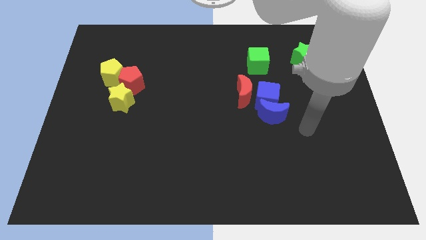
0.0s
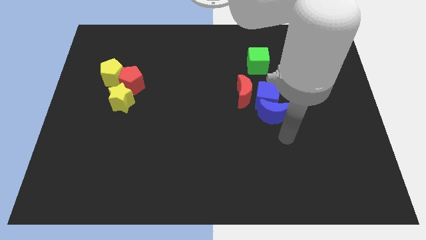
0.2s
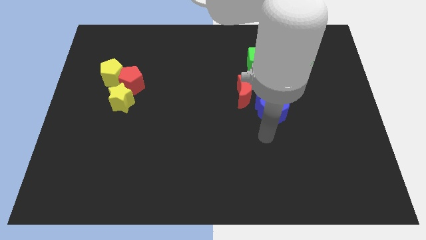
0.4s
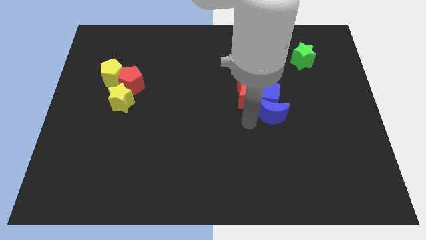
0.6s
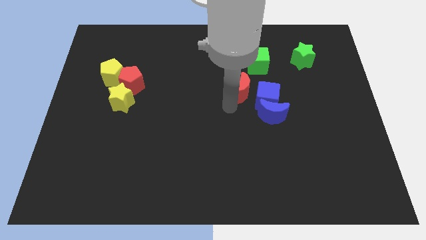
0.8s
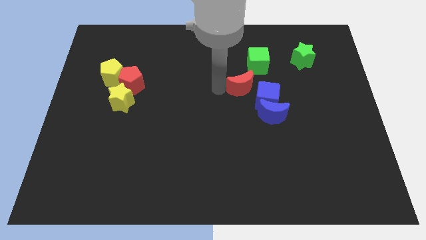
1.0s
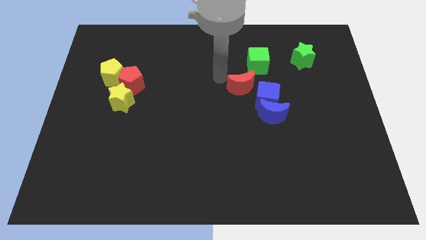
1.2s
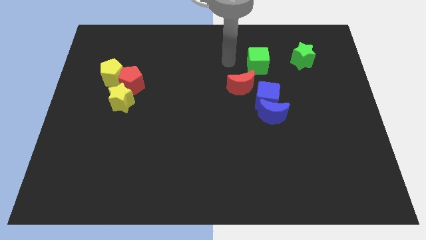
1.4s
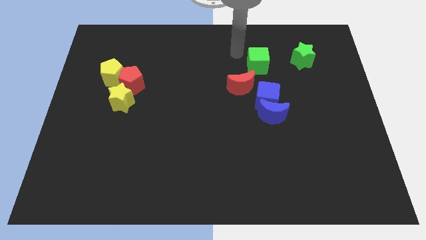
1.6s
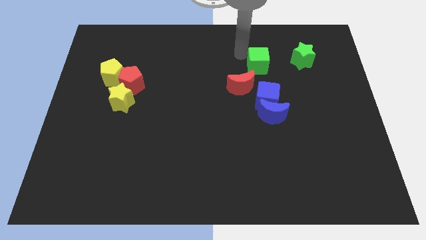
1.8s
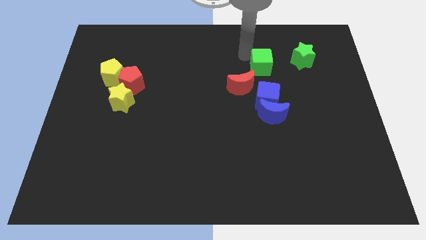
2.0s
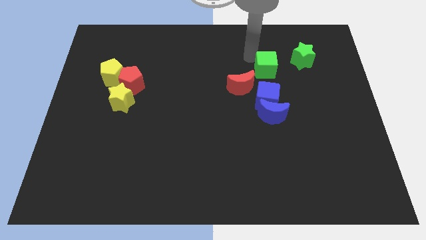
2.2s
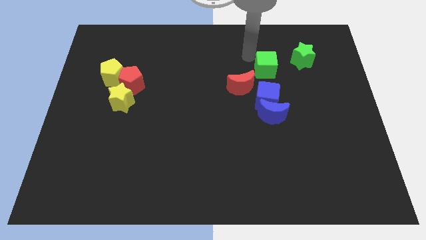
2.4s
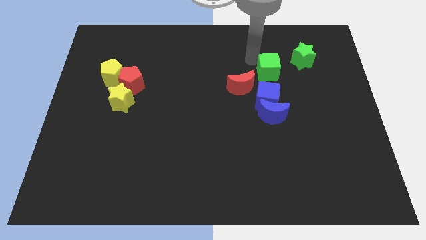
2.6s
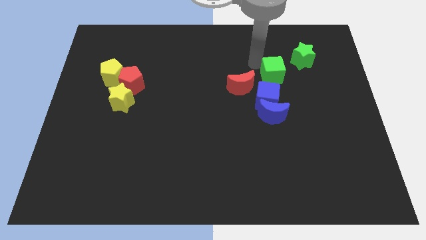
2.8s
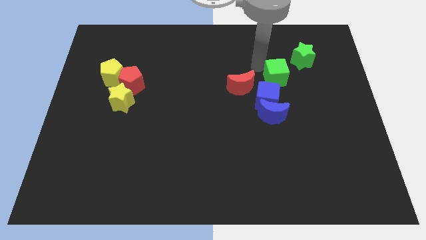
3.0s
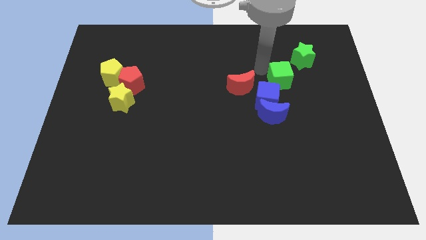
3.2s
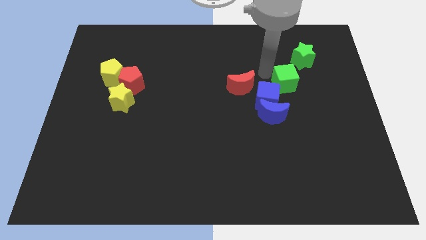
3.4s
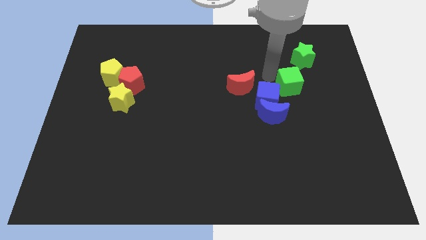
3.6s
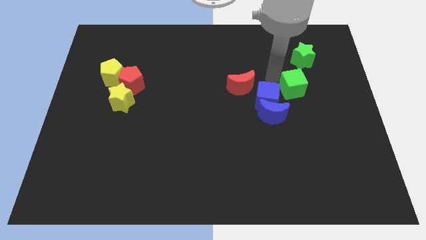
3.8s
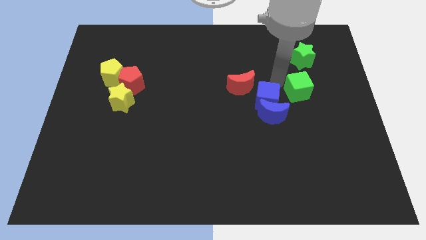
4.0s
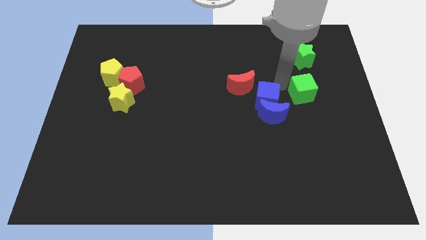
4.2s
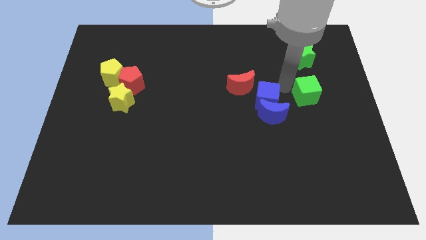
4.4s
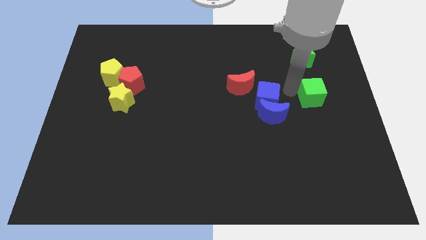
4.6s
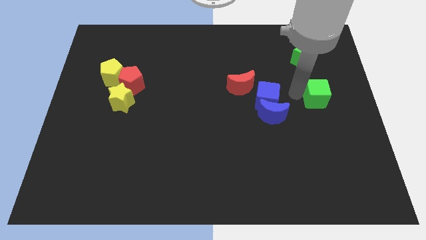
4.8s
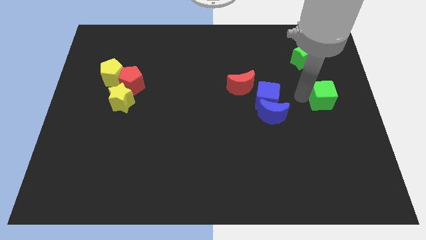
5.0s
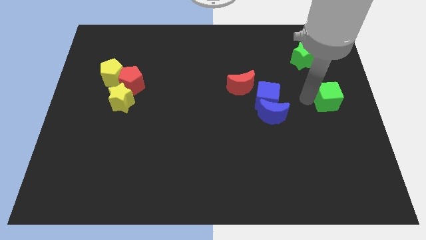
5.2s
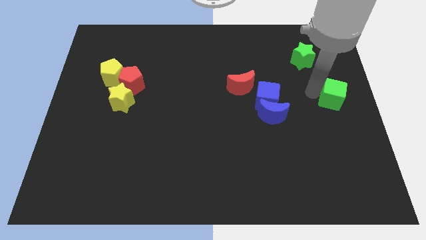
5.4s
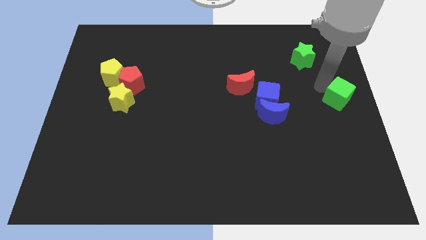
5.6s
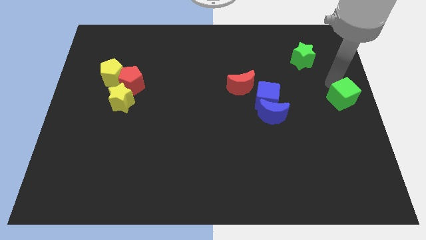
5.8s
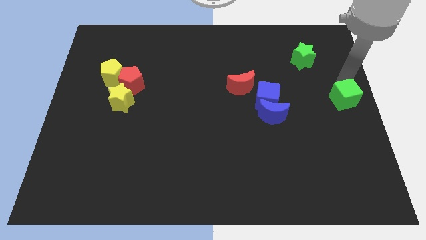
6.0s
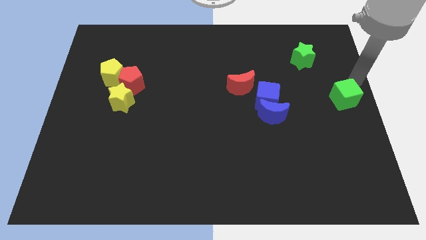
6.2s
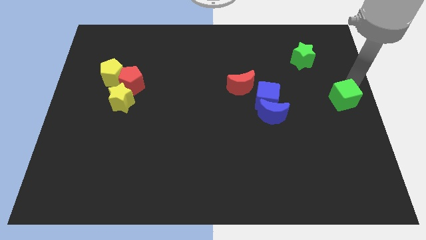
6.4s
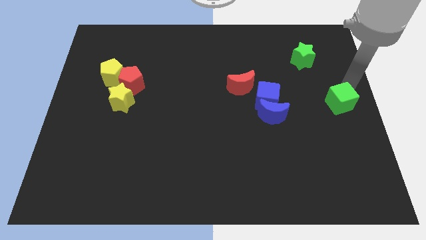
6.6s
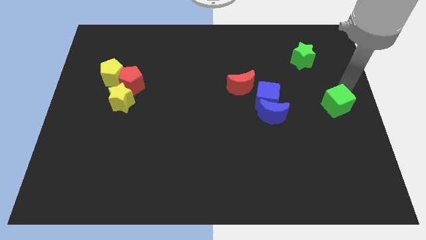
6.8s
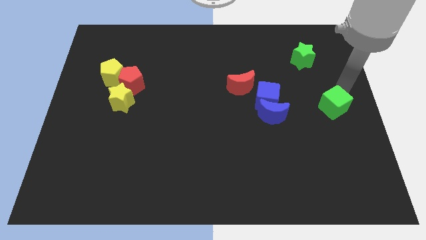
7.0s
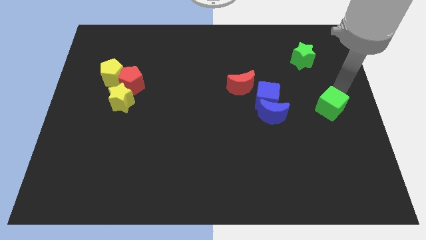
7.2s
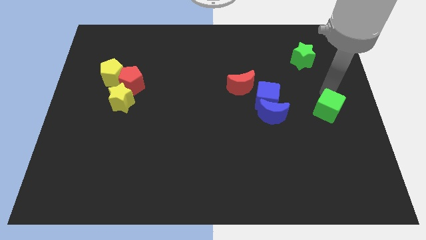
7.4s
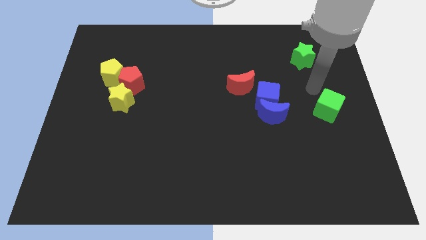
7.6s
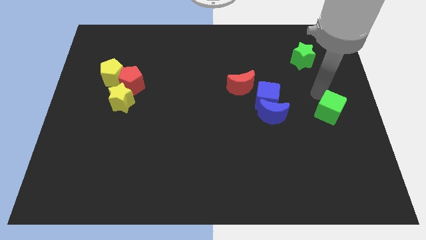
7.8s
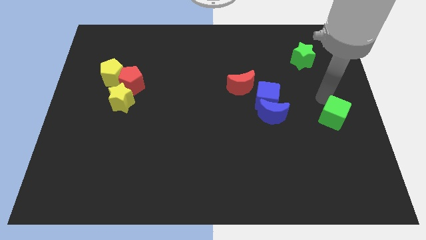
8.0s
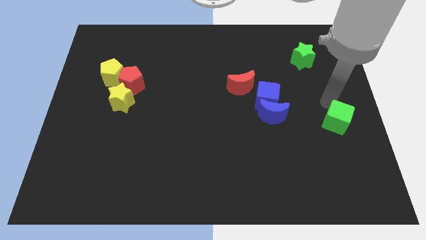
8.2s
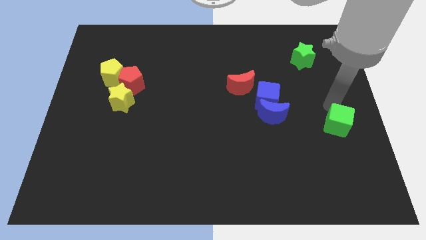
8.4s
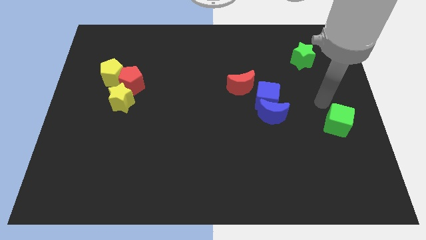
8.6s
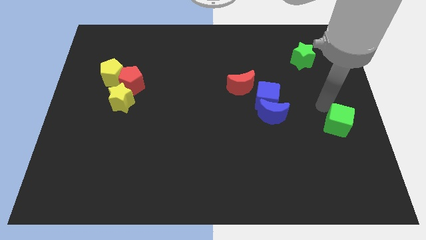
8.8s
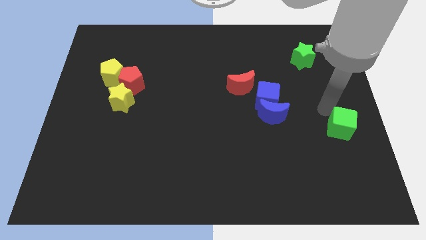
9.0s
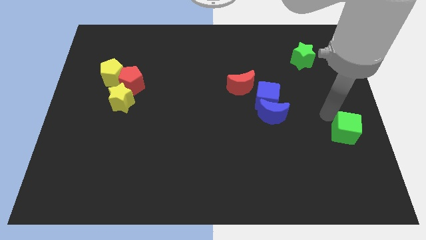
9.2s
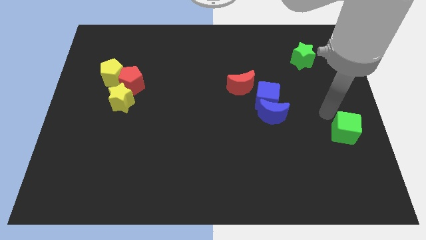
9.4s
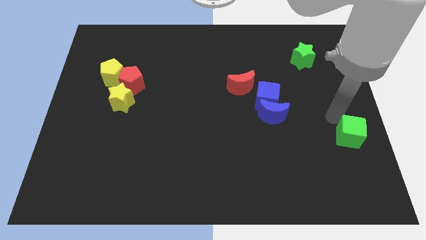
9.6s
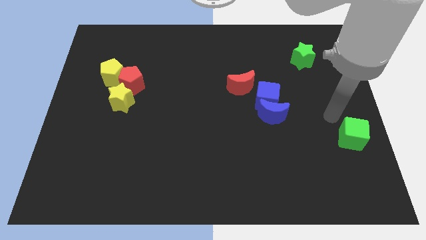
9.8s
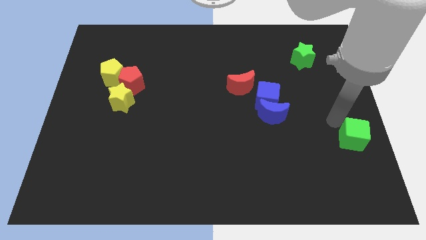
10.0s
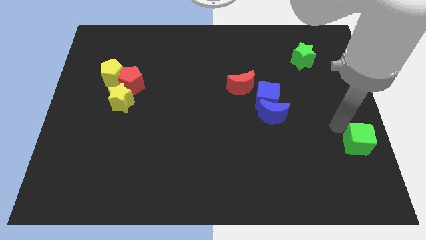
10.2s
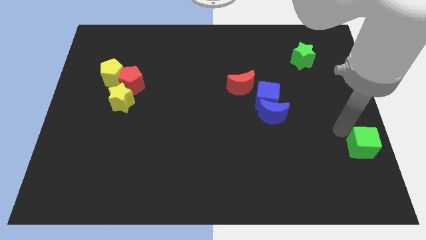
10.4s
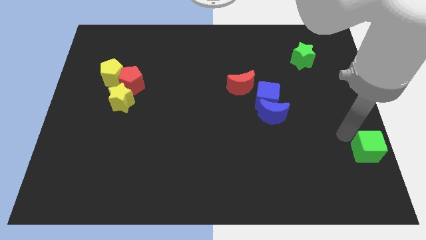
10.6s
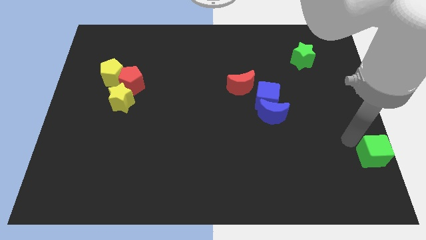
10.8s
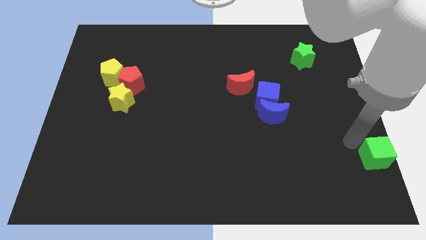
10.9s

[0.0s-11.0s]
move the green cube to the bottom right of the board

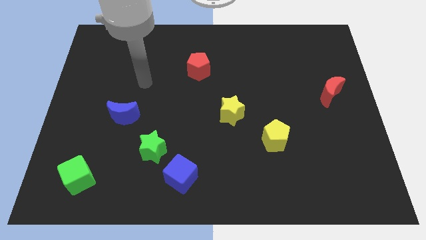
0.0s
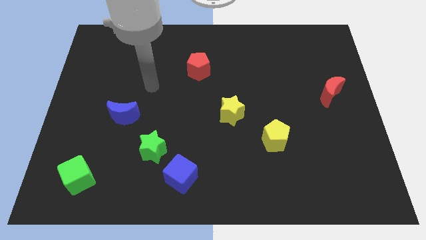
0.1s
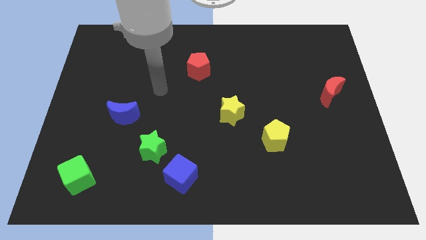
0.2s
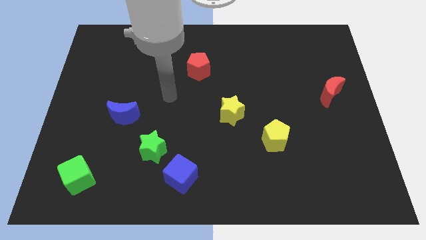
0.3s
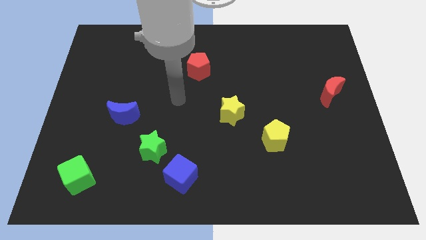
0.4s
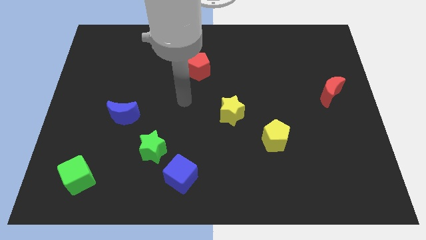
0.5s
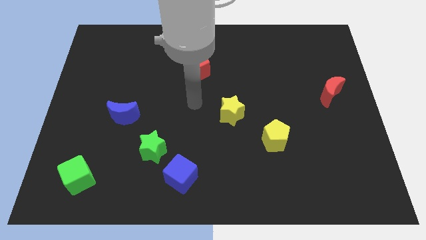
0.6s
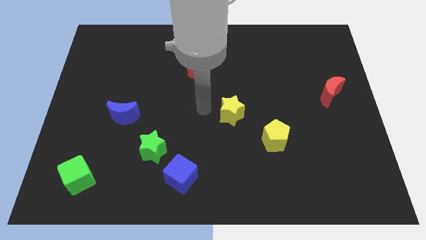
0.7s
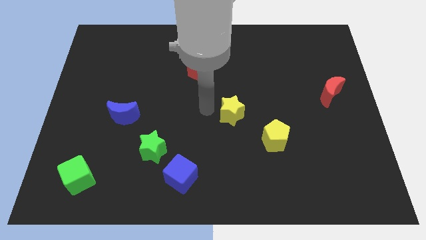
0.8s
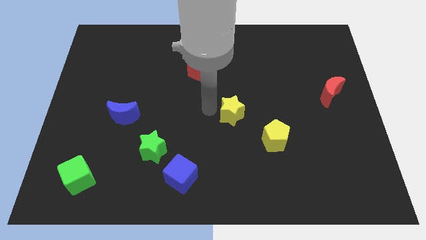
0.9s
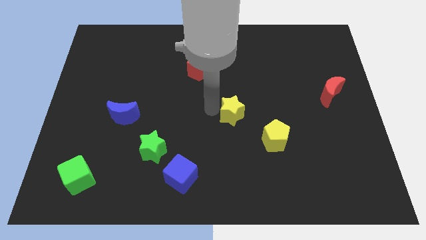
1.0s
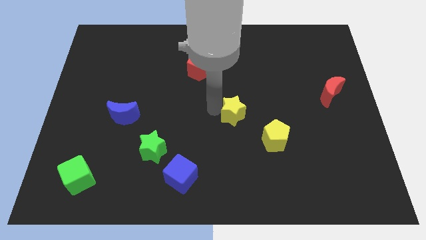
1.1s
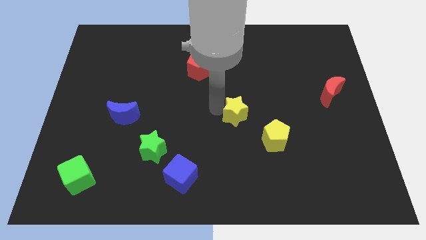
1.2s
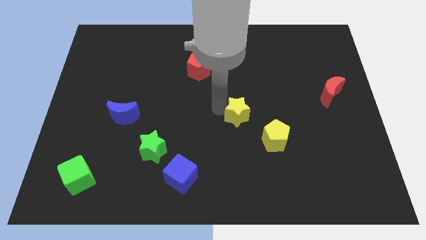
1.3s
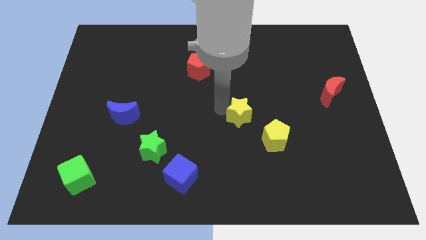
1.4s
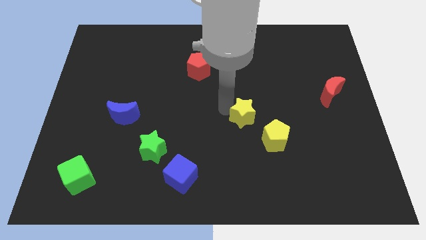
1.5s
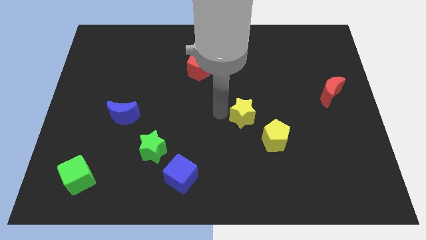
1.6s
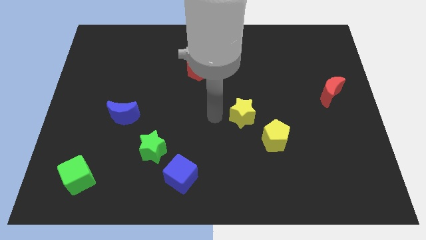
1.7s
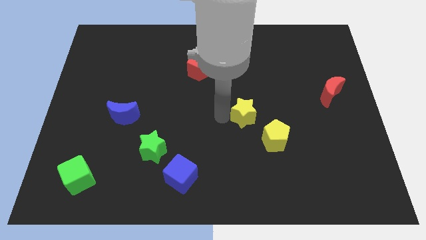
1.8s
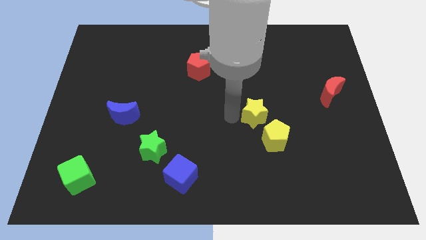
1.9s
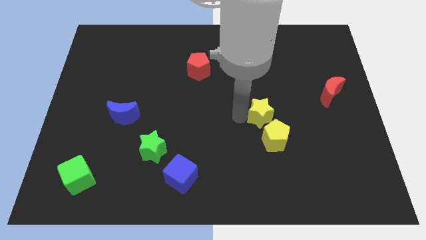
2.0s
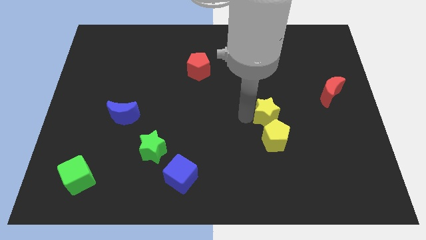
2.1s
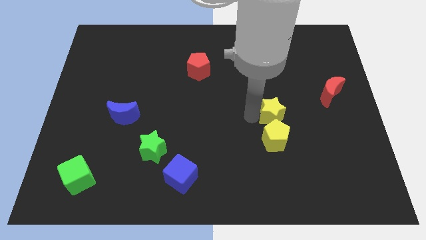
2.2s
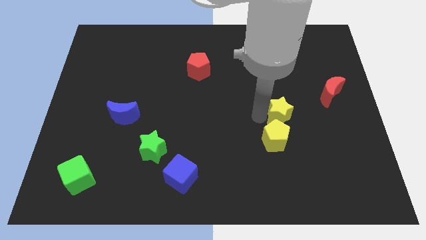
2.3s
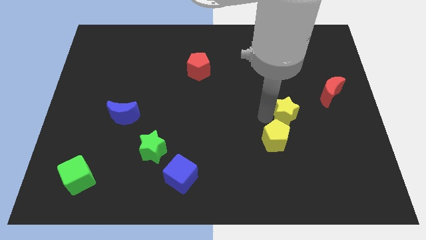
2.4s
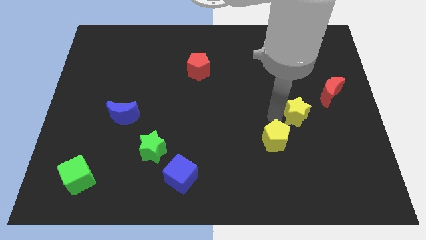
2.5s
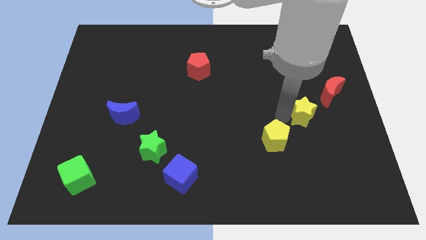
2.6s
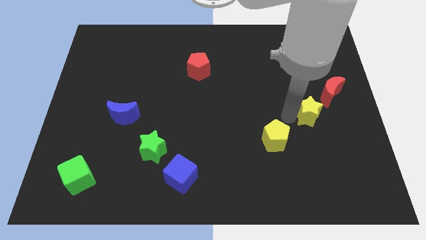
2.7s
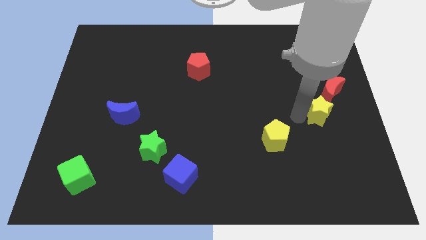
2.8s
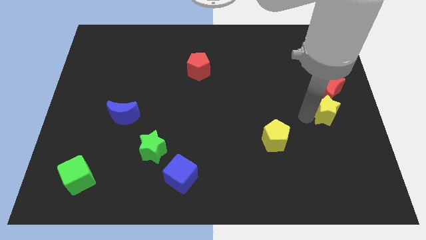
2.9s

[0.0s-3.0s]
put the yellow star to the center right
